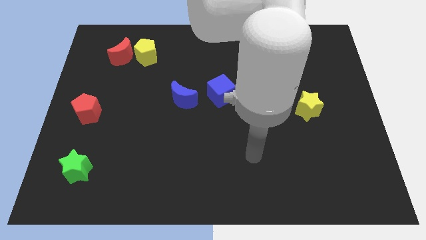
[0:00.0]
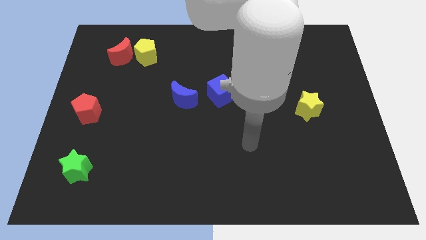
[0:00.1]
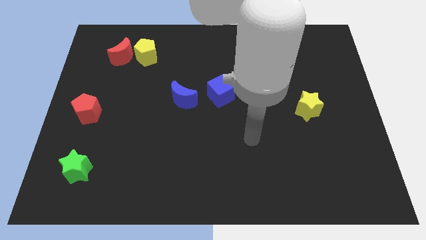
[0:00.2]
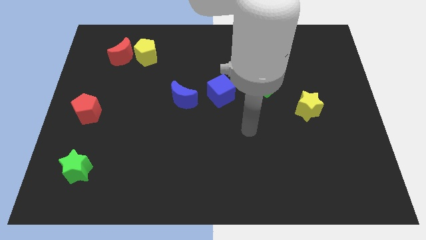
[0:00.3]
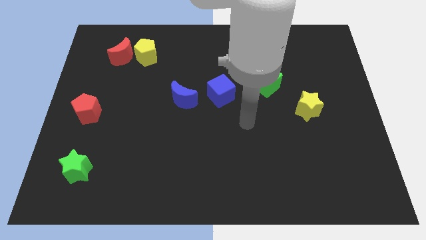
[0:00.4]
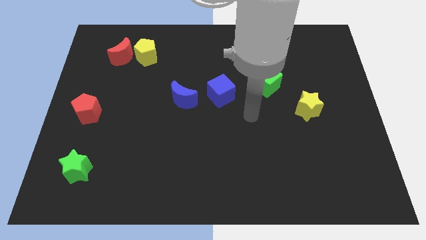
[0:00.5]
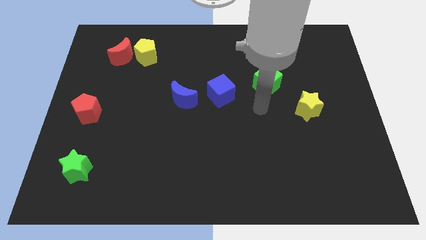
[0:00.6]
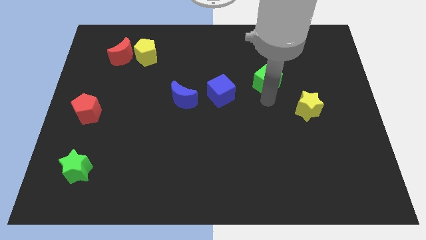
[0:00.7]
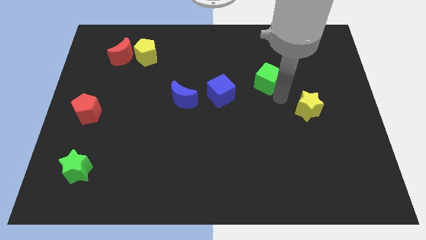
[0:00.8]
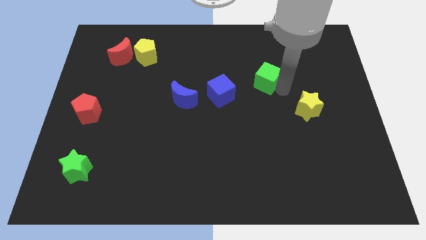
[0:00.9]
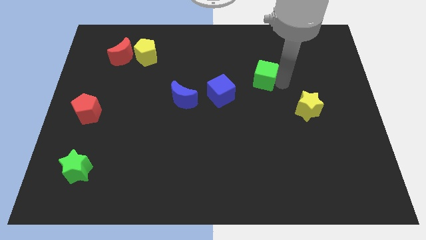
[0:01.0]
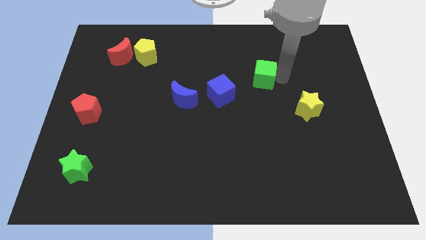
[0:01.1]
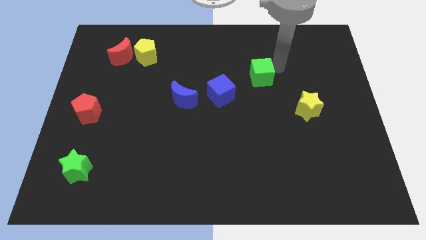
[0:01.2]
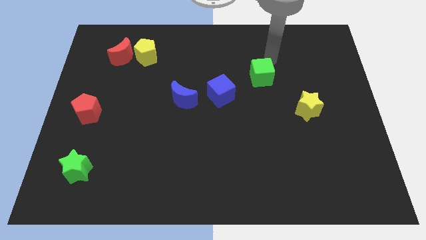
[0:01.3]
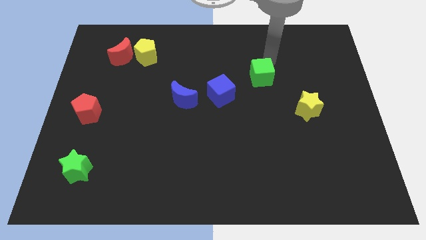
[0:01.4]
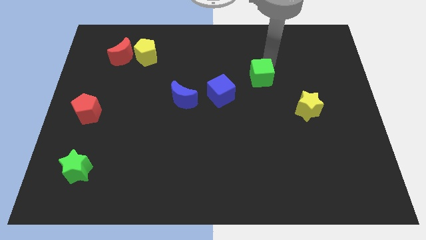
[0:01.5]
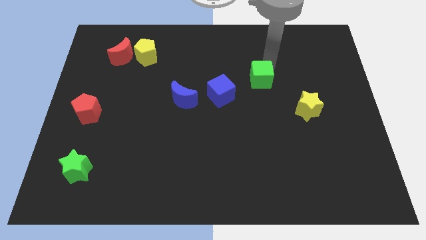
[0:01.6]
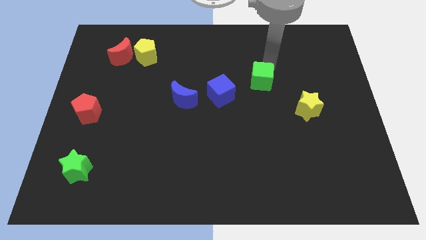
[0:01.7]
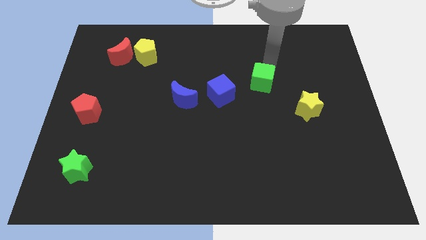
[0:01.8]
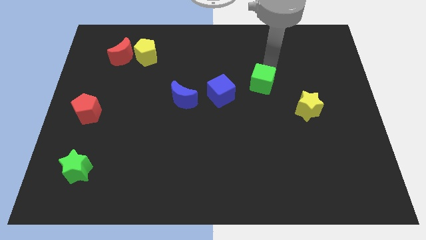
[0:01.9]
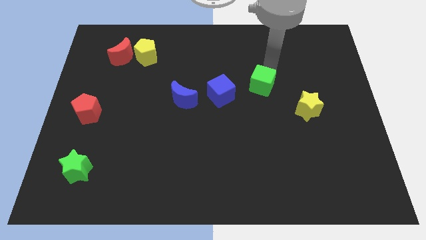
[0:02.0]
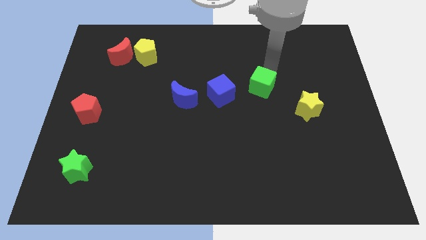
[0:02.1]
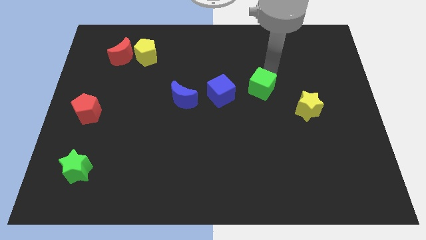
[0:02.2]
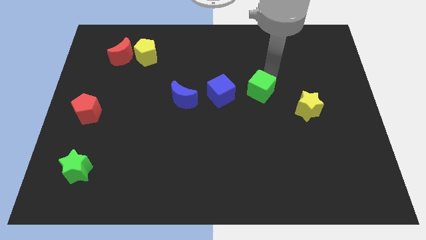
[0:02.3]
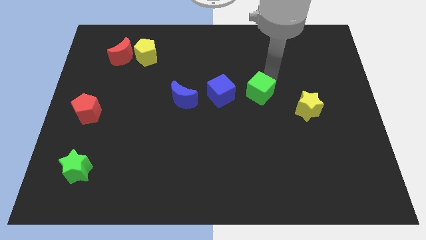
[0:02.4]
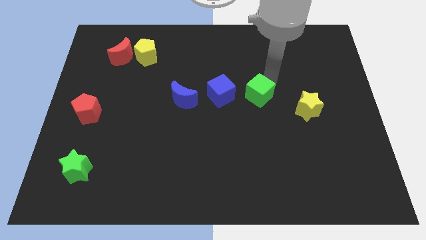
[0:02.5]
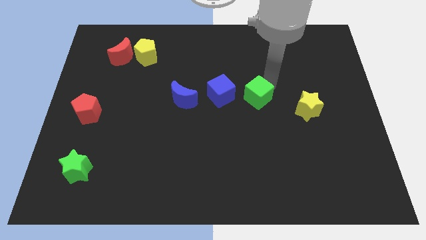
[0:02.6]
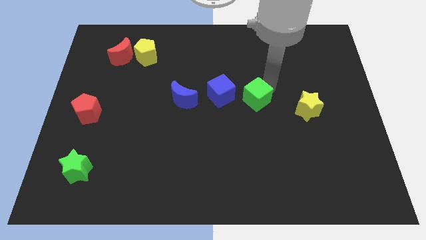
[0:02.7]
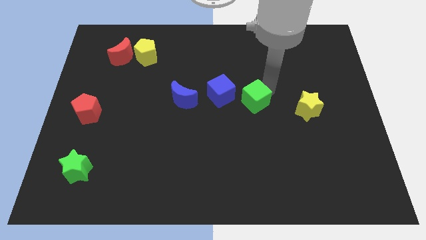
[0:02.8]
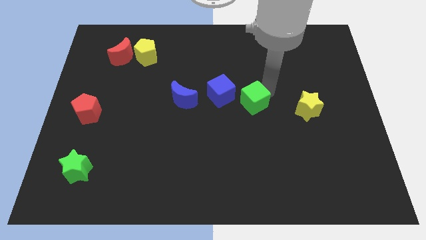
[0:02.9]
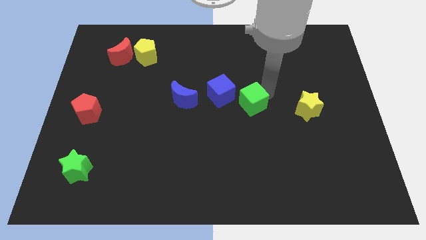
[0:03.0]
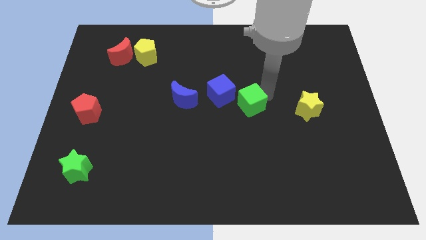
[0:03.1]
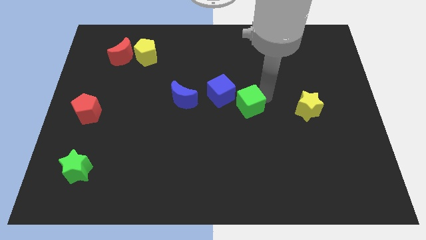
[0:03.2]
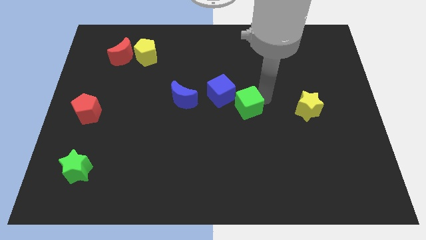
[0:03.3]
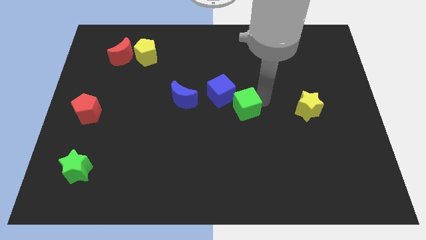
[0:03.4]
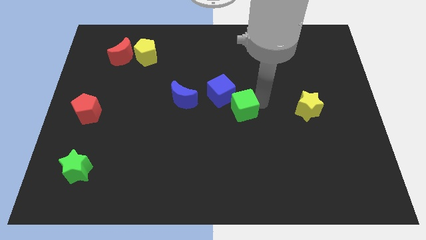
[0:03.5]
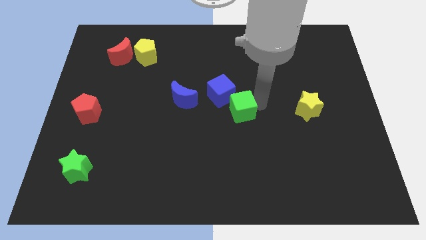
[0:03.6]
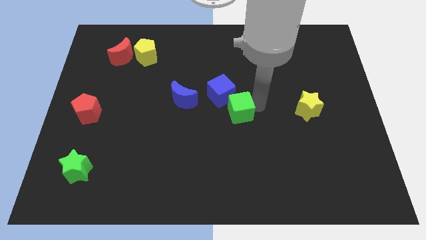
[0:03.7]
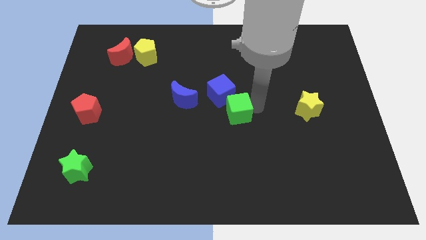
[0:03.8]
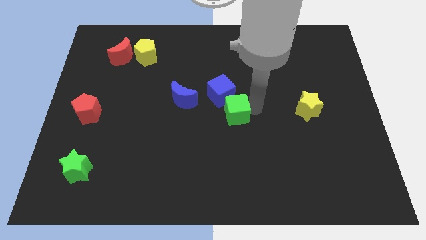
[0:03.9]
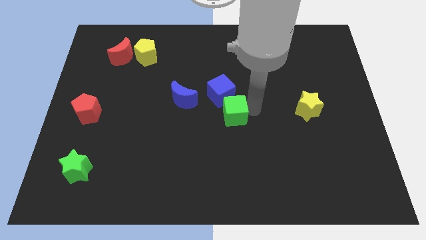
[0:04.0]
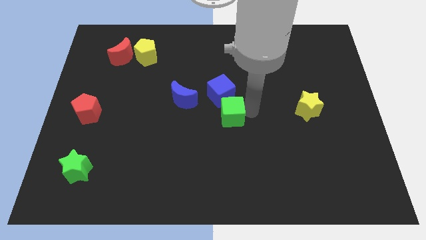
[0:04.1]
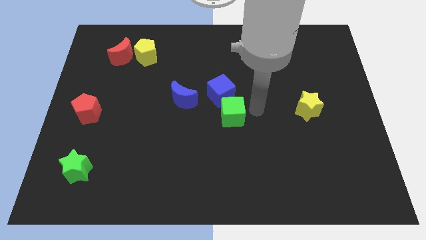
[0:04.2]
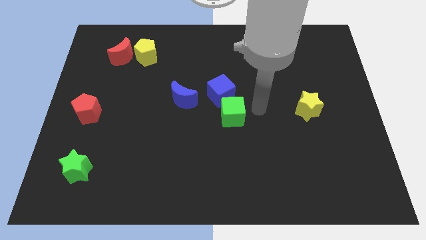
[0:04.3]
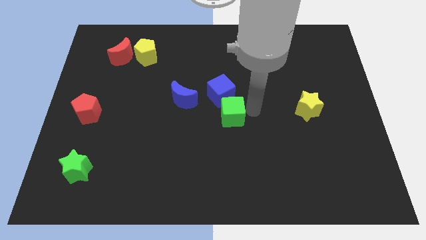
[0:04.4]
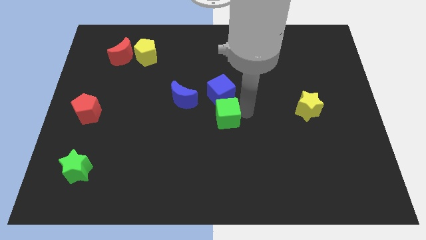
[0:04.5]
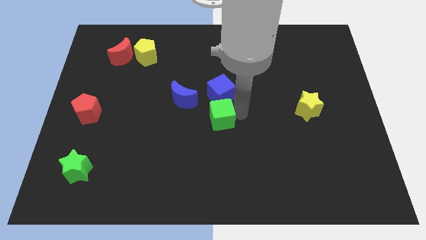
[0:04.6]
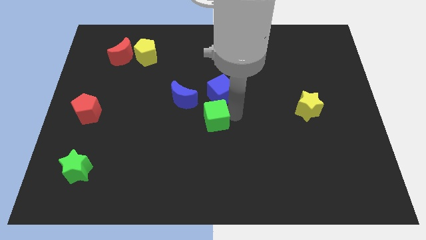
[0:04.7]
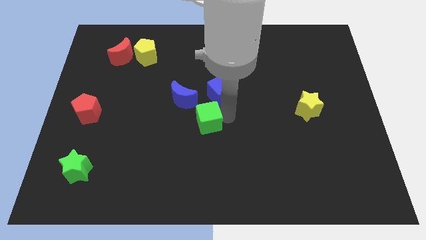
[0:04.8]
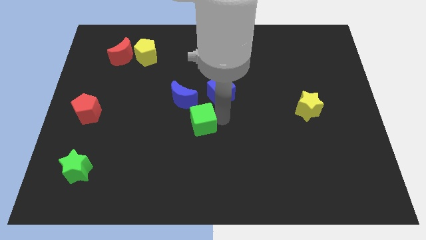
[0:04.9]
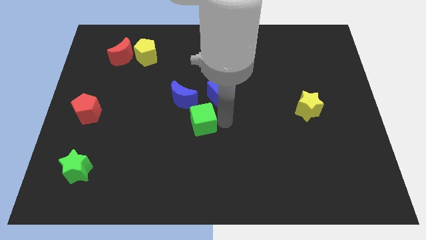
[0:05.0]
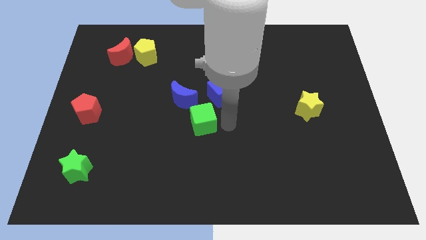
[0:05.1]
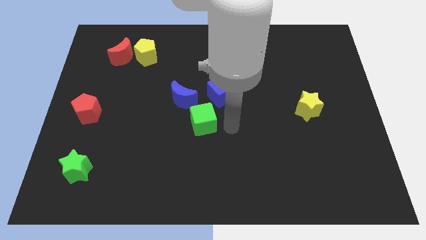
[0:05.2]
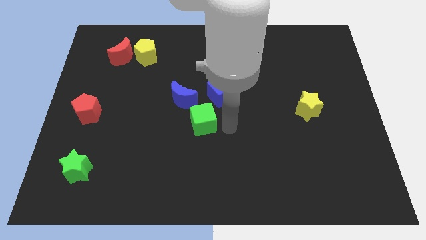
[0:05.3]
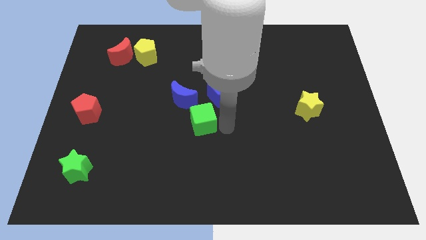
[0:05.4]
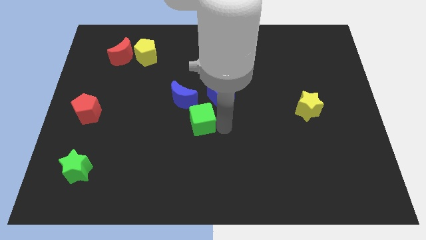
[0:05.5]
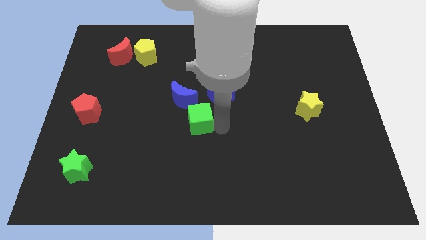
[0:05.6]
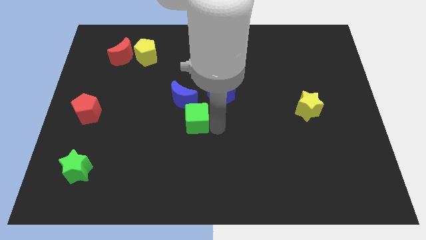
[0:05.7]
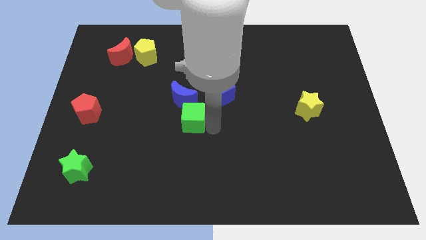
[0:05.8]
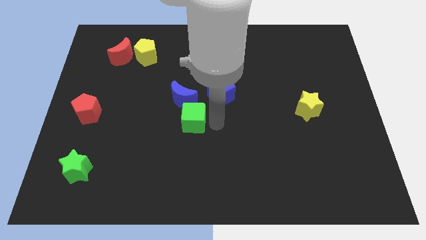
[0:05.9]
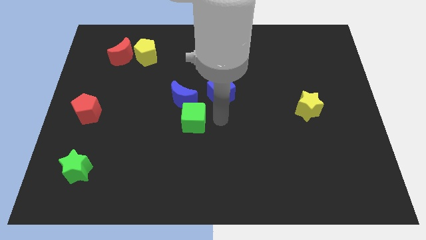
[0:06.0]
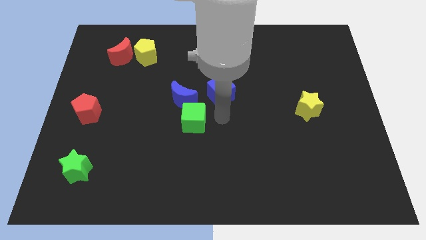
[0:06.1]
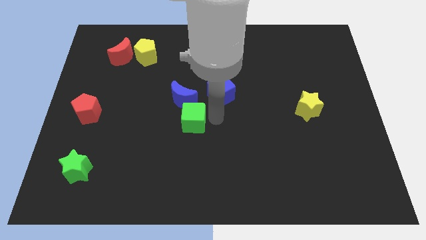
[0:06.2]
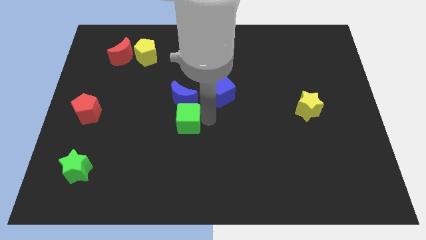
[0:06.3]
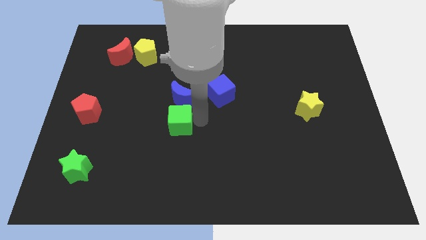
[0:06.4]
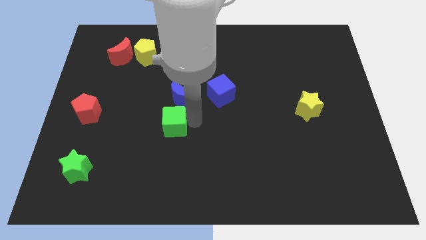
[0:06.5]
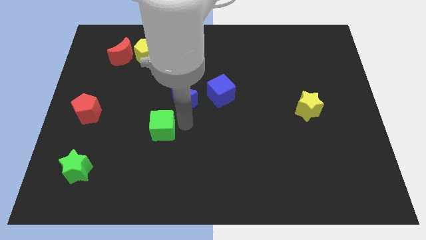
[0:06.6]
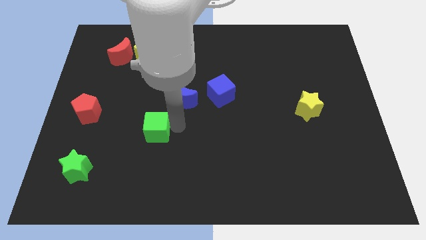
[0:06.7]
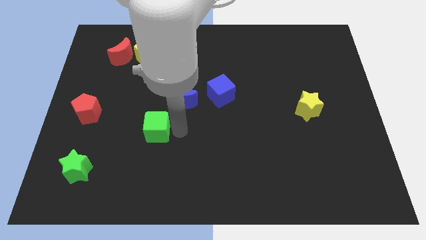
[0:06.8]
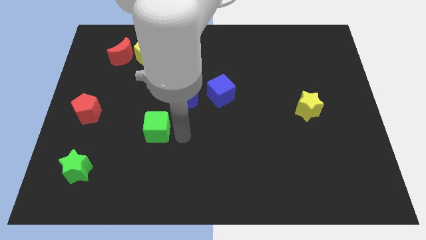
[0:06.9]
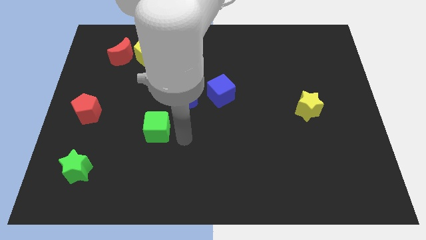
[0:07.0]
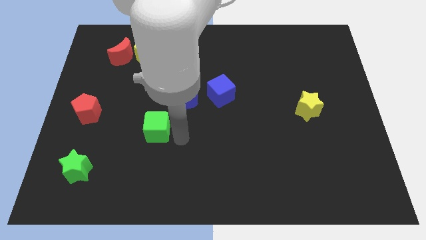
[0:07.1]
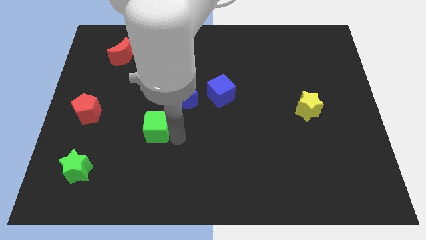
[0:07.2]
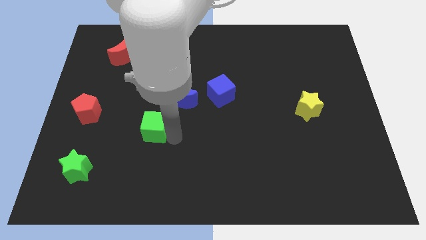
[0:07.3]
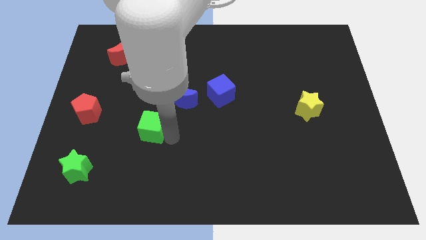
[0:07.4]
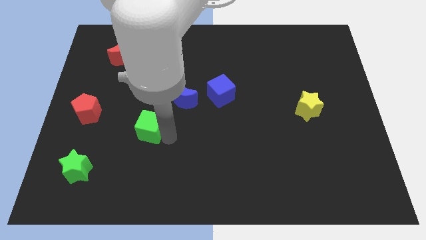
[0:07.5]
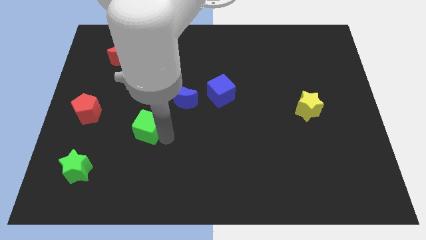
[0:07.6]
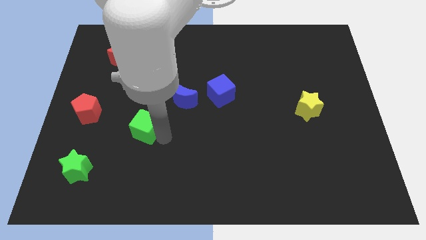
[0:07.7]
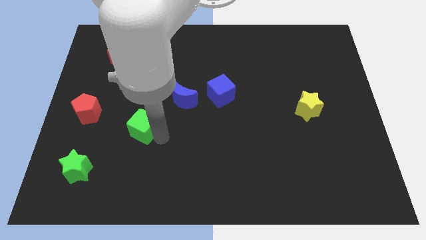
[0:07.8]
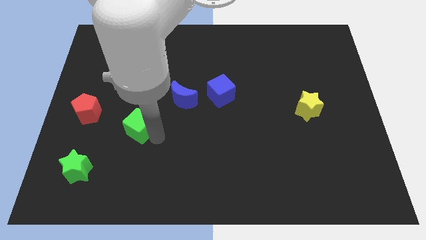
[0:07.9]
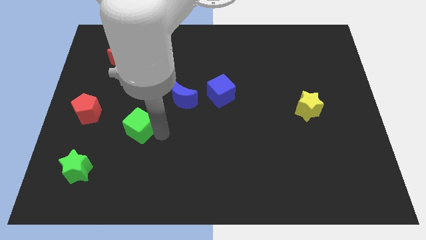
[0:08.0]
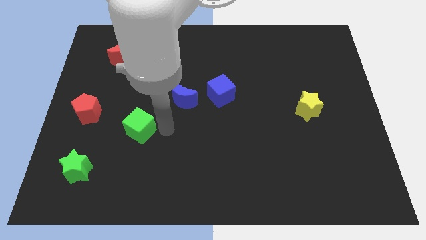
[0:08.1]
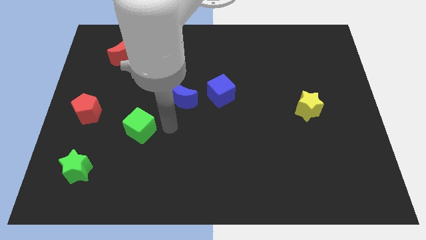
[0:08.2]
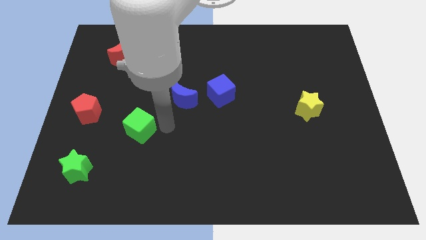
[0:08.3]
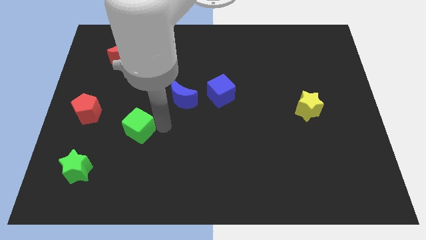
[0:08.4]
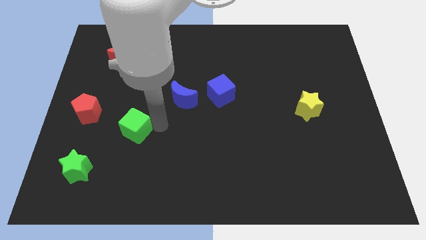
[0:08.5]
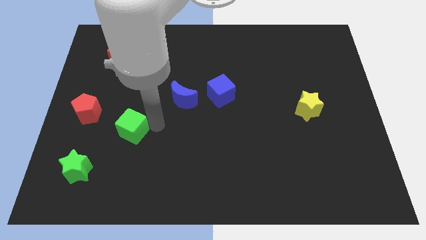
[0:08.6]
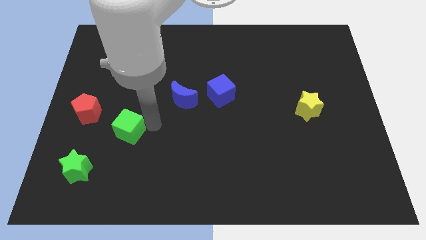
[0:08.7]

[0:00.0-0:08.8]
slide the green cube to the bottom right of the red pentagon
